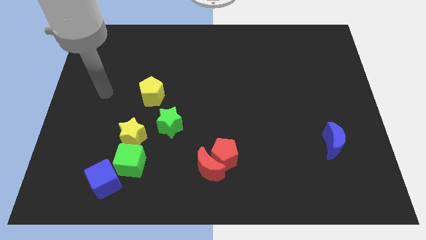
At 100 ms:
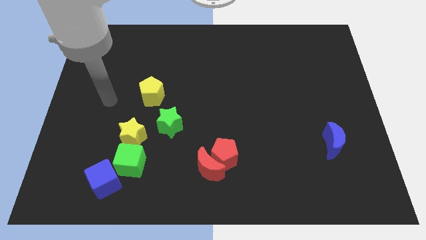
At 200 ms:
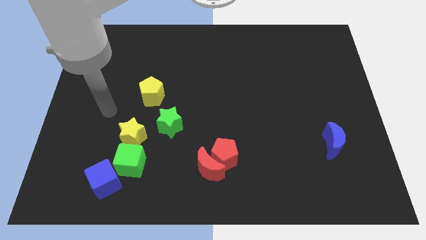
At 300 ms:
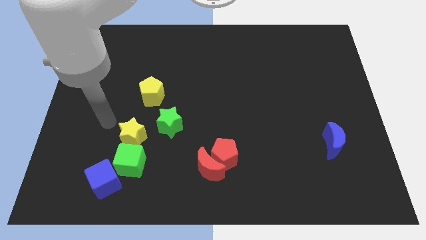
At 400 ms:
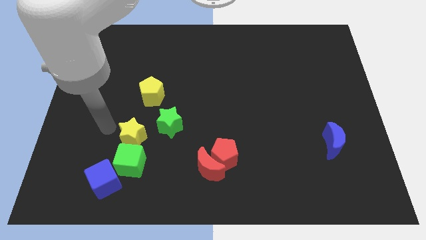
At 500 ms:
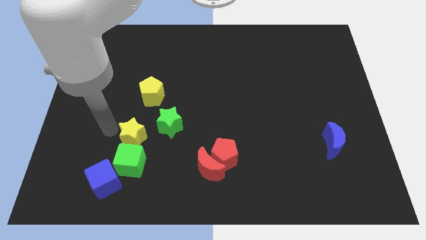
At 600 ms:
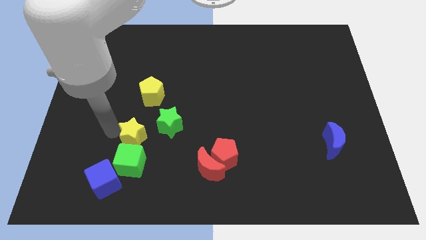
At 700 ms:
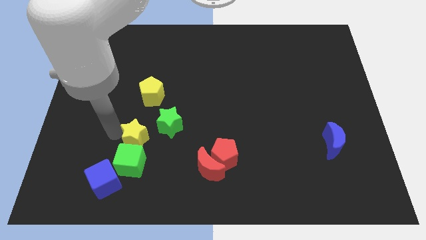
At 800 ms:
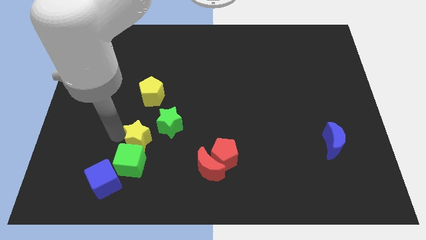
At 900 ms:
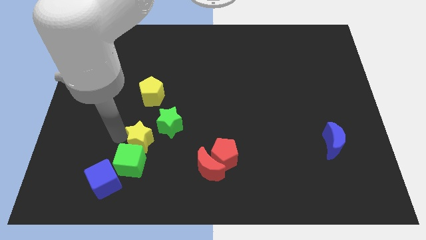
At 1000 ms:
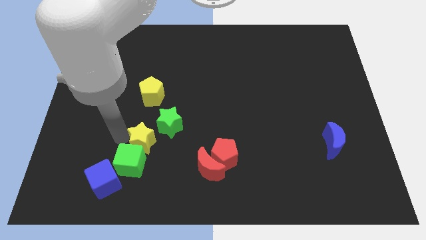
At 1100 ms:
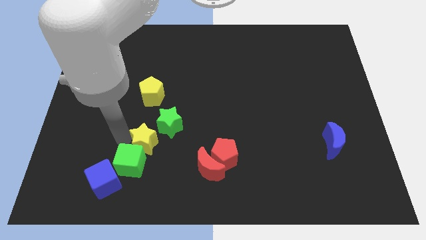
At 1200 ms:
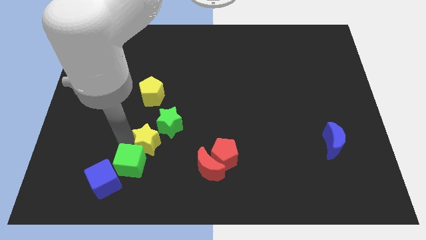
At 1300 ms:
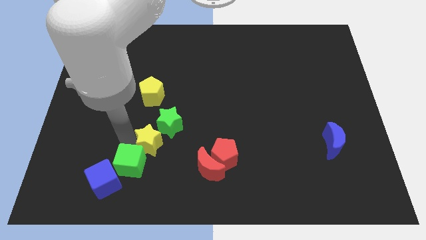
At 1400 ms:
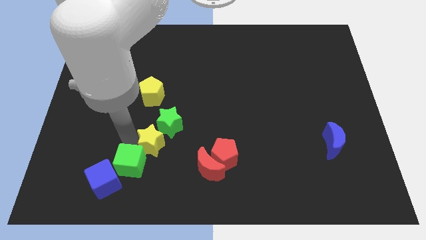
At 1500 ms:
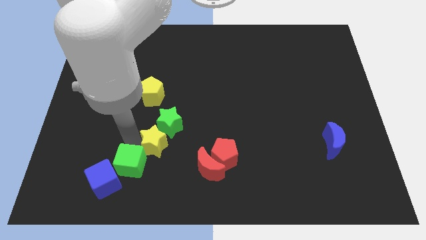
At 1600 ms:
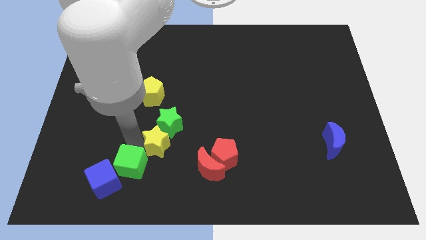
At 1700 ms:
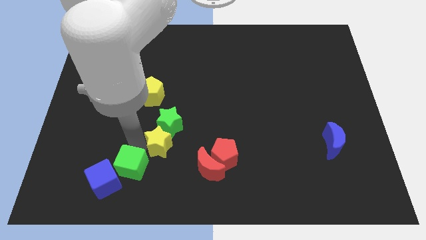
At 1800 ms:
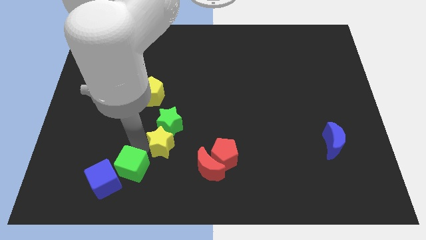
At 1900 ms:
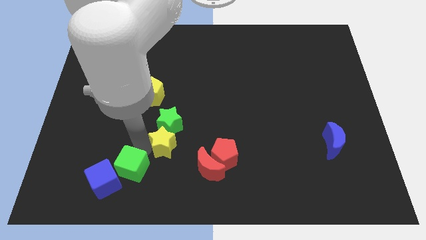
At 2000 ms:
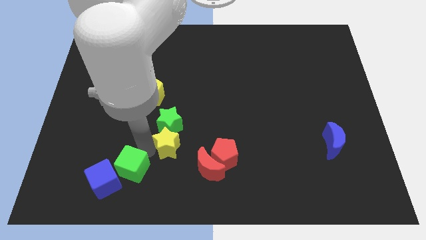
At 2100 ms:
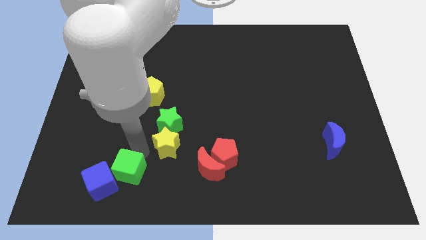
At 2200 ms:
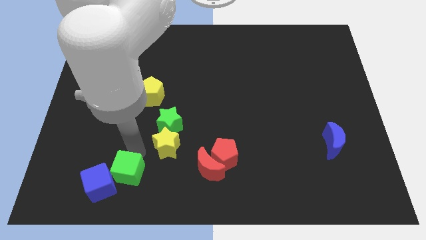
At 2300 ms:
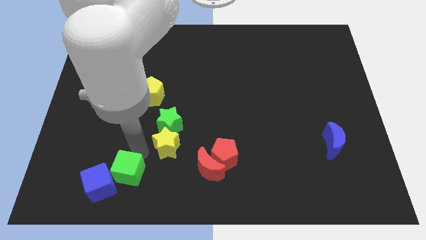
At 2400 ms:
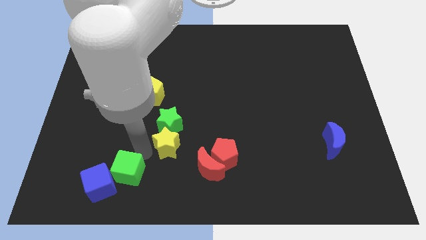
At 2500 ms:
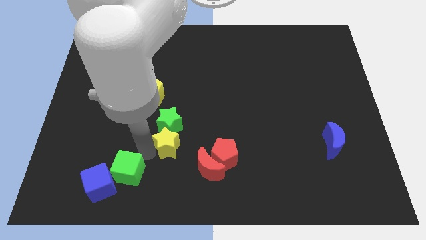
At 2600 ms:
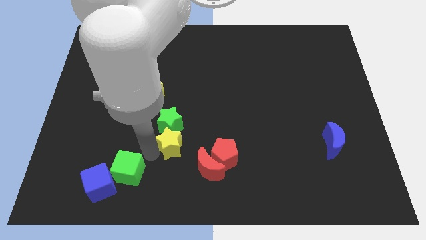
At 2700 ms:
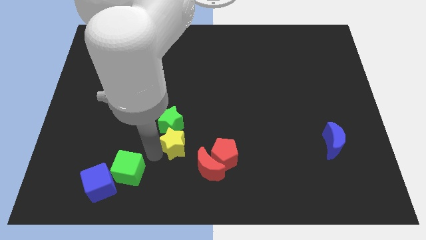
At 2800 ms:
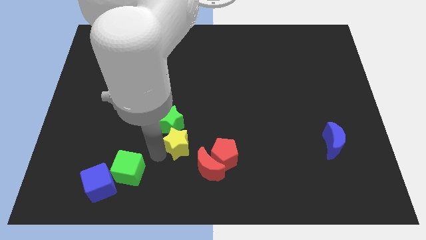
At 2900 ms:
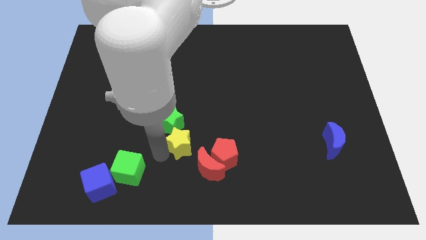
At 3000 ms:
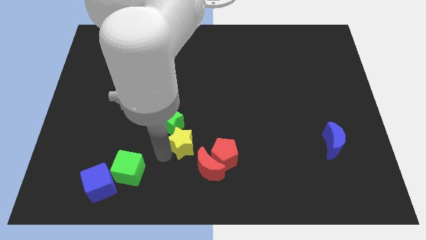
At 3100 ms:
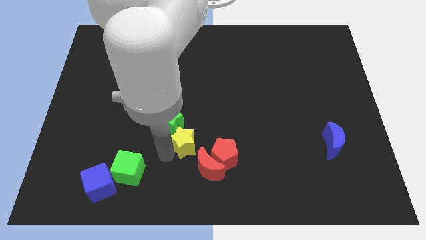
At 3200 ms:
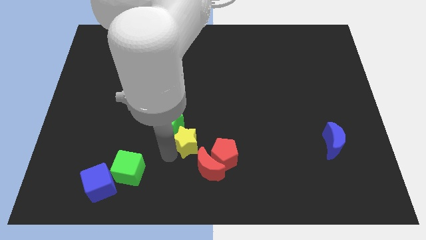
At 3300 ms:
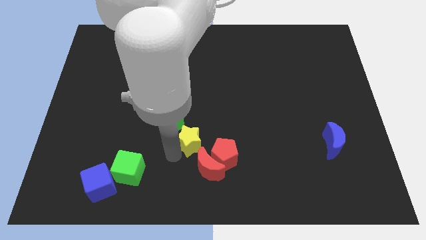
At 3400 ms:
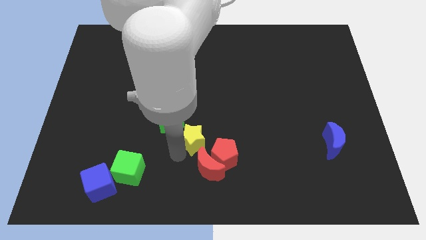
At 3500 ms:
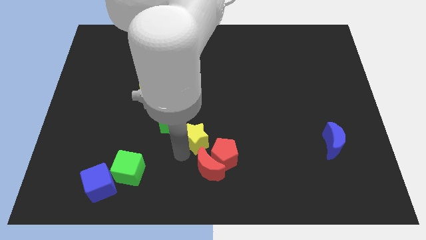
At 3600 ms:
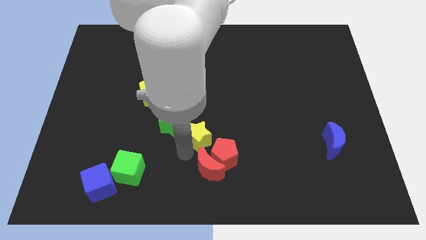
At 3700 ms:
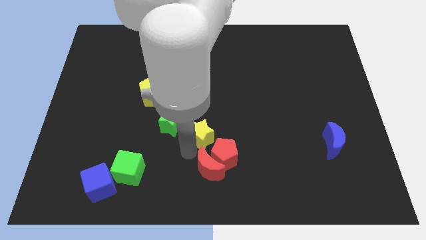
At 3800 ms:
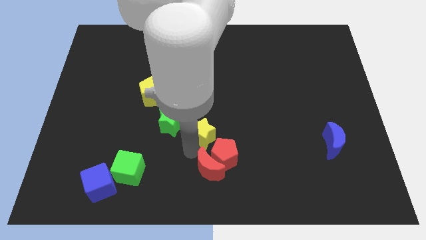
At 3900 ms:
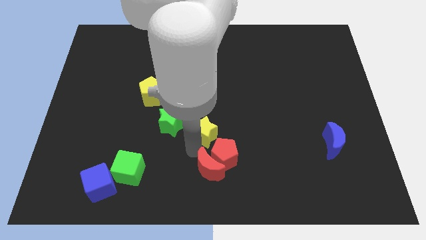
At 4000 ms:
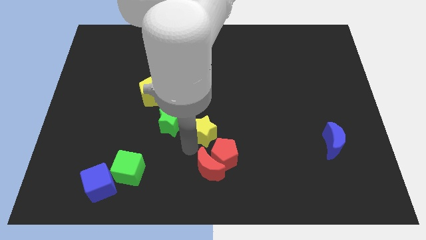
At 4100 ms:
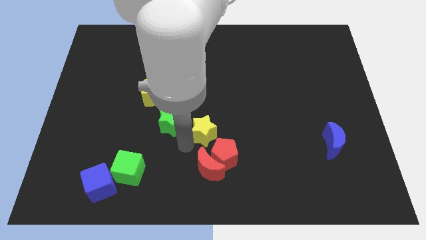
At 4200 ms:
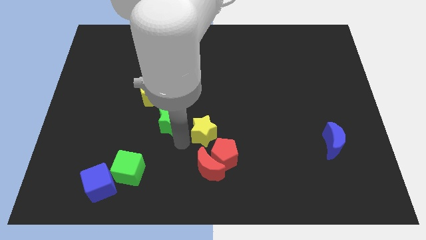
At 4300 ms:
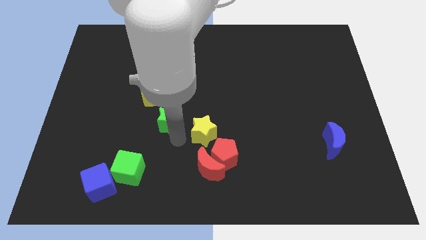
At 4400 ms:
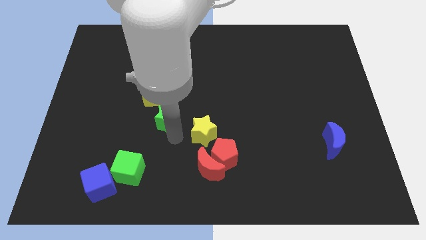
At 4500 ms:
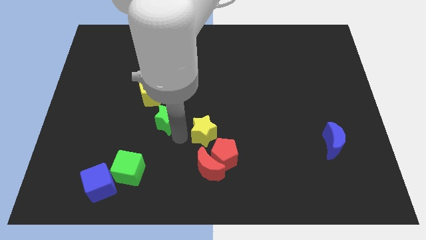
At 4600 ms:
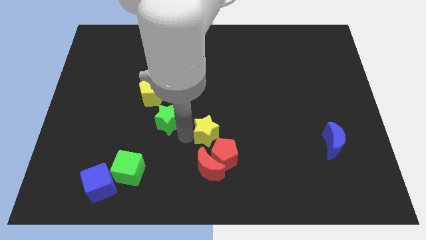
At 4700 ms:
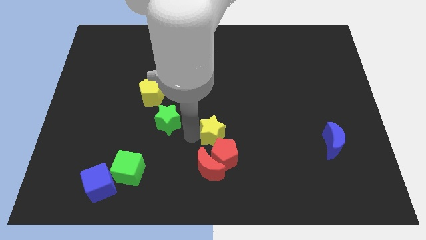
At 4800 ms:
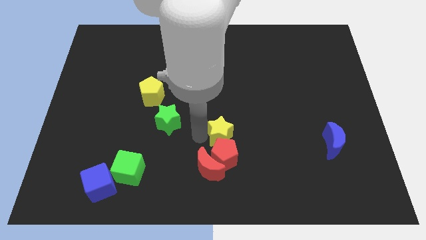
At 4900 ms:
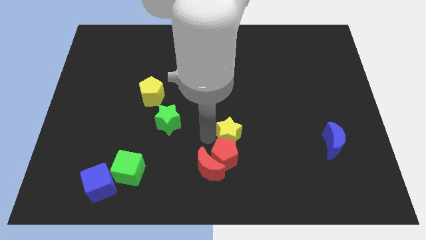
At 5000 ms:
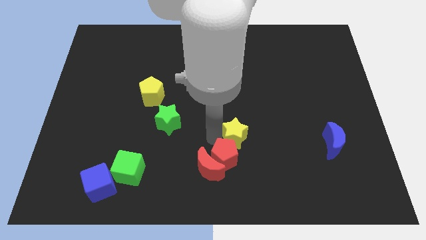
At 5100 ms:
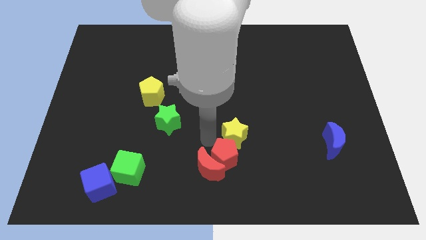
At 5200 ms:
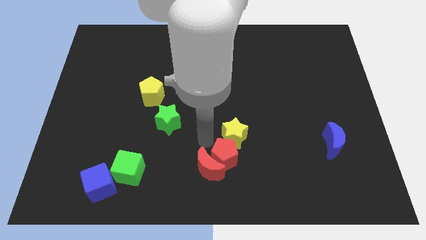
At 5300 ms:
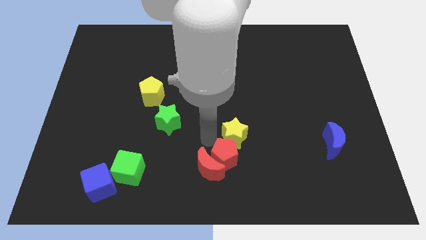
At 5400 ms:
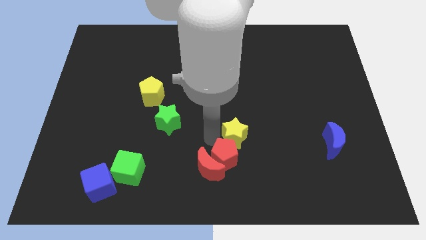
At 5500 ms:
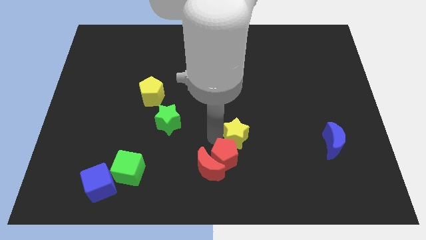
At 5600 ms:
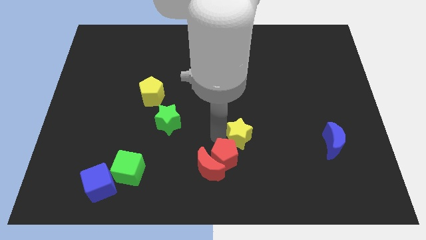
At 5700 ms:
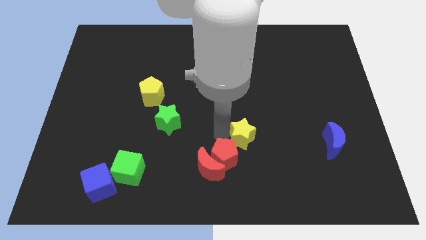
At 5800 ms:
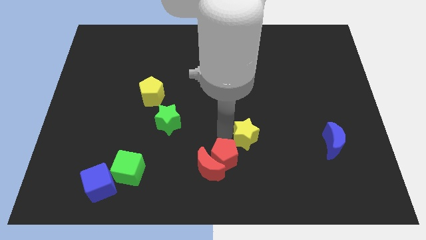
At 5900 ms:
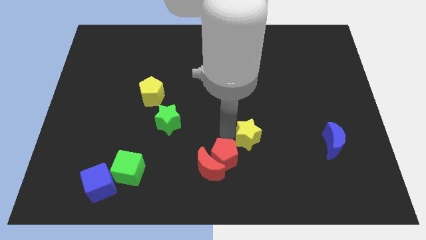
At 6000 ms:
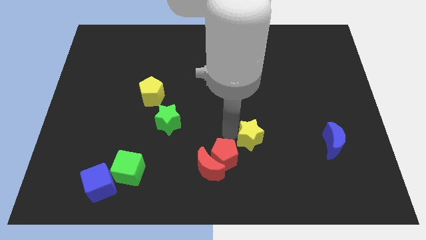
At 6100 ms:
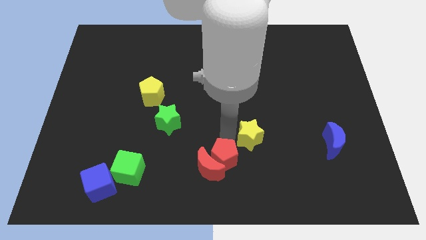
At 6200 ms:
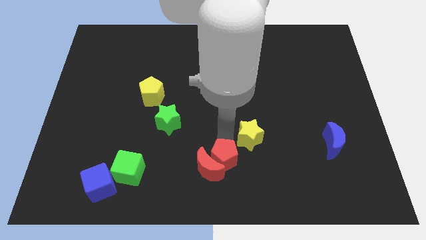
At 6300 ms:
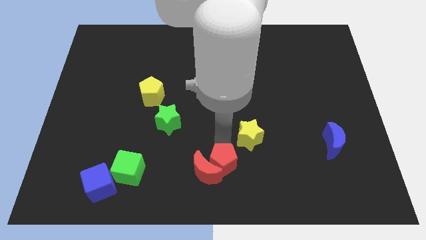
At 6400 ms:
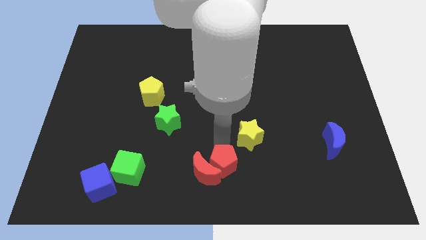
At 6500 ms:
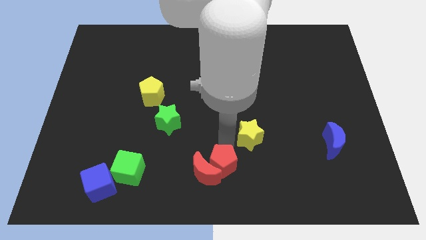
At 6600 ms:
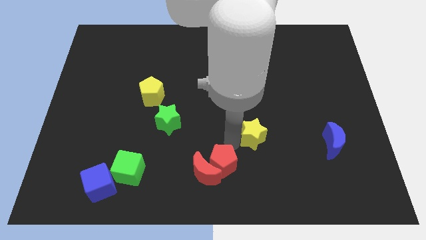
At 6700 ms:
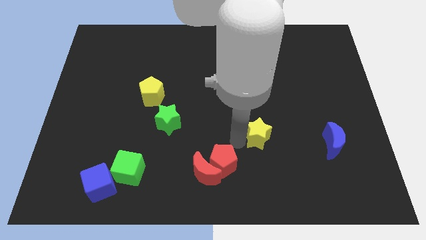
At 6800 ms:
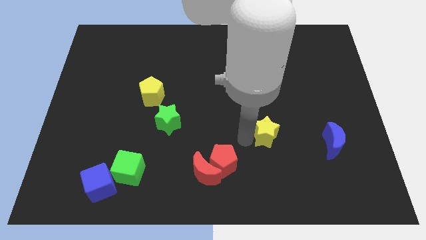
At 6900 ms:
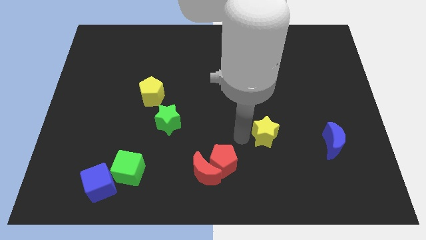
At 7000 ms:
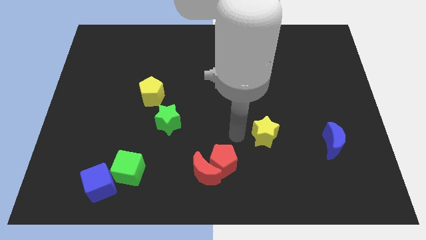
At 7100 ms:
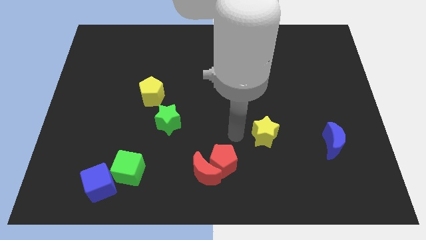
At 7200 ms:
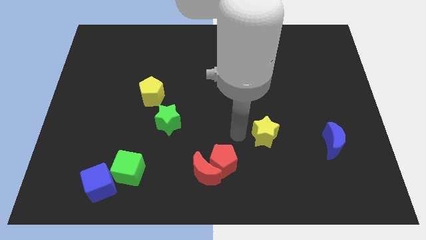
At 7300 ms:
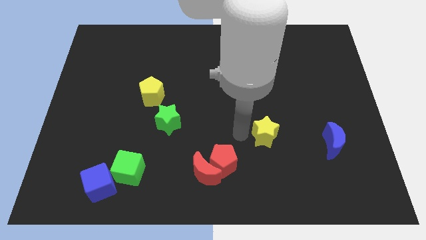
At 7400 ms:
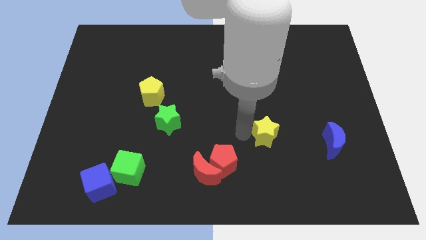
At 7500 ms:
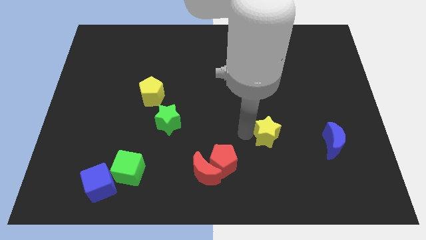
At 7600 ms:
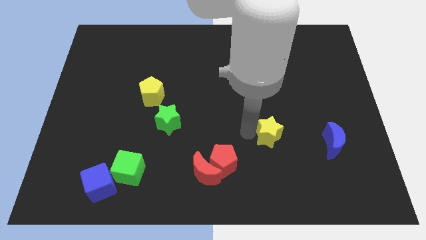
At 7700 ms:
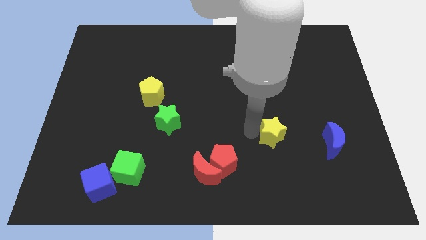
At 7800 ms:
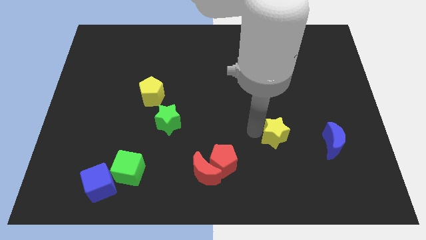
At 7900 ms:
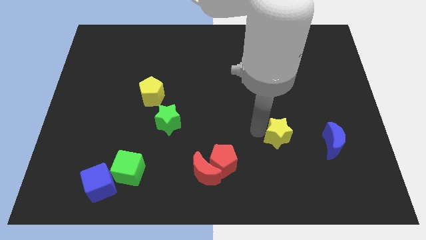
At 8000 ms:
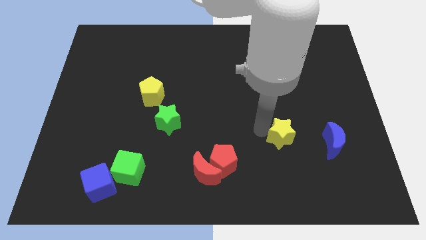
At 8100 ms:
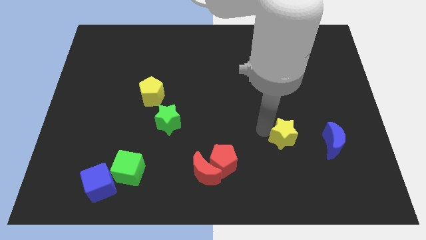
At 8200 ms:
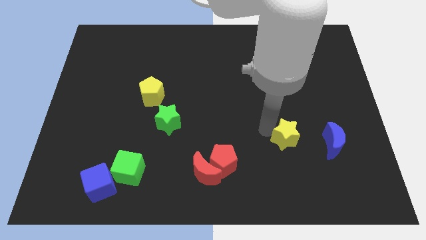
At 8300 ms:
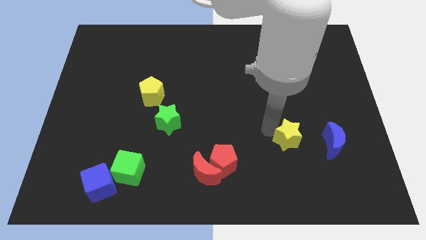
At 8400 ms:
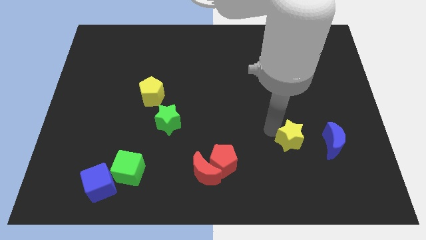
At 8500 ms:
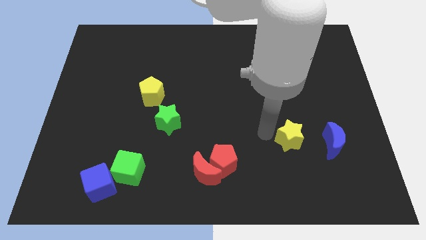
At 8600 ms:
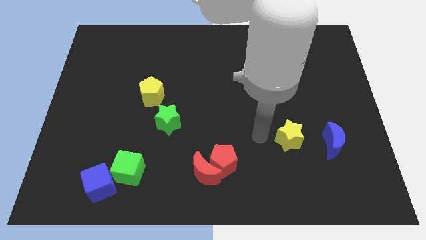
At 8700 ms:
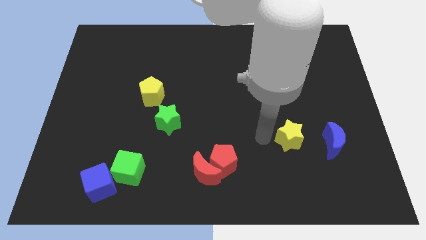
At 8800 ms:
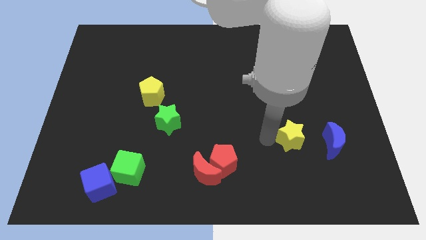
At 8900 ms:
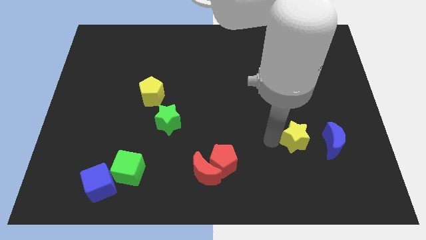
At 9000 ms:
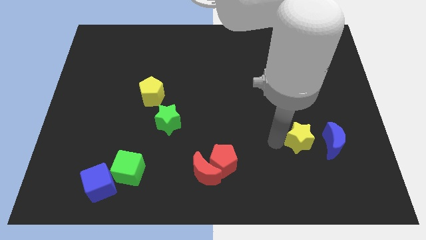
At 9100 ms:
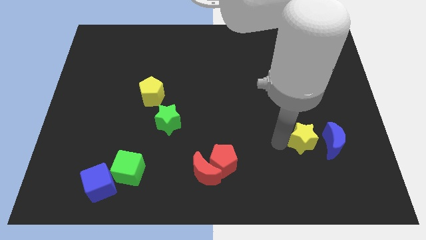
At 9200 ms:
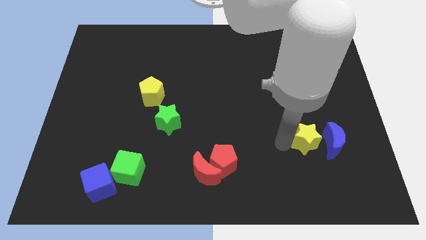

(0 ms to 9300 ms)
push the yellow star next to the blue moon
